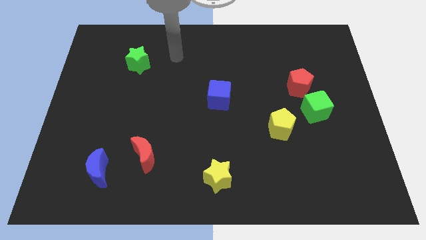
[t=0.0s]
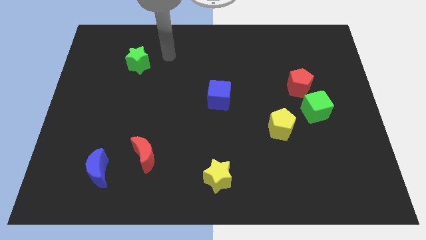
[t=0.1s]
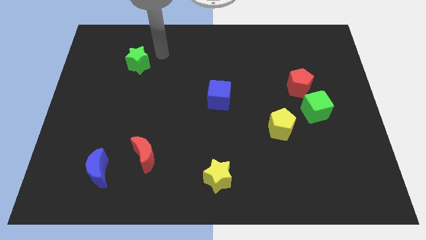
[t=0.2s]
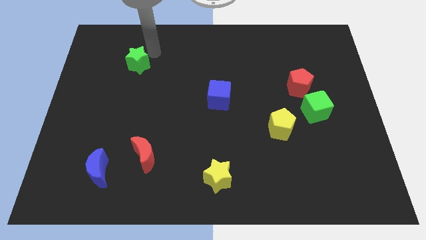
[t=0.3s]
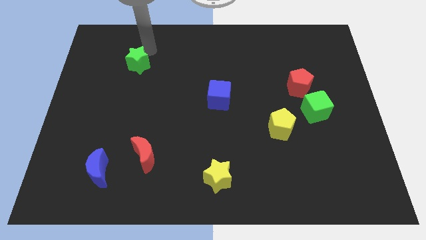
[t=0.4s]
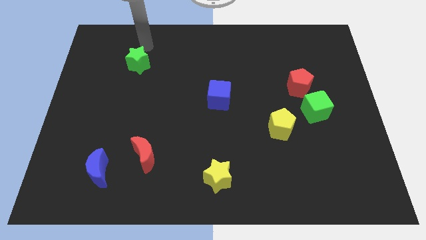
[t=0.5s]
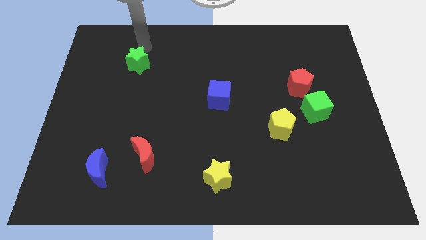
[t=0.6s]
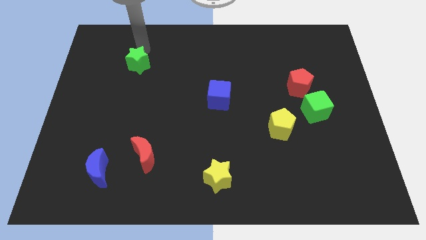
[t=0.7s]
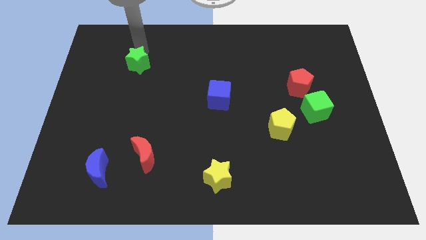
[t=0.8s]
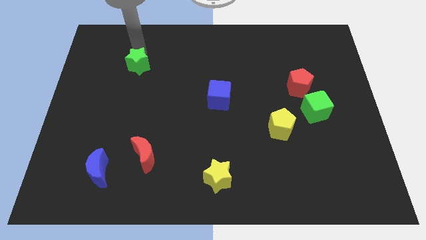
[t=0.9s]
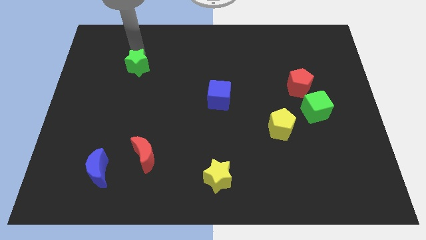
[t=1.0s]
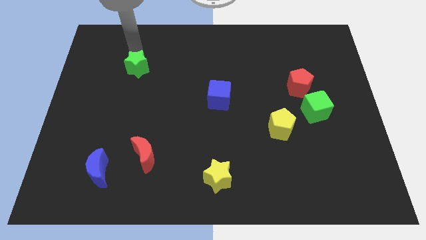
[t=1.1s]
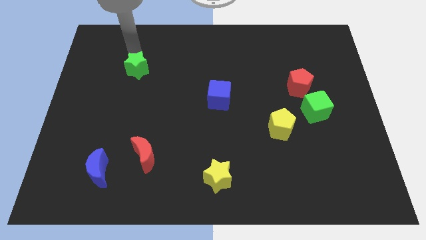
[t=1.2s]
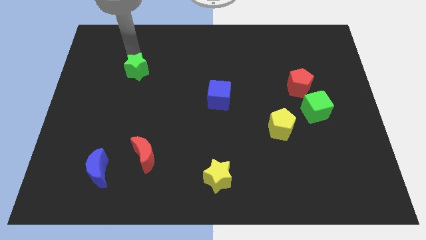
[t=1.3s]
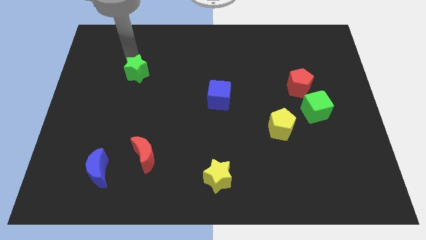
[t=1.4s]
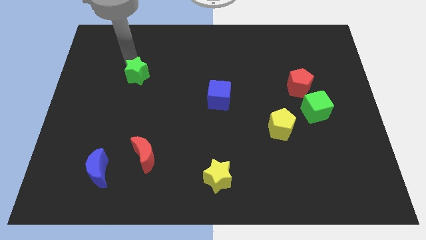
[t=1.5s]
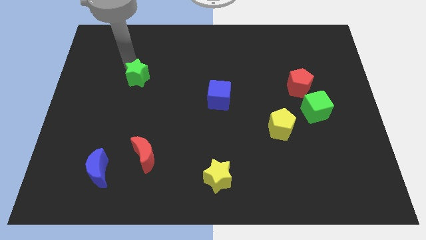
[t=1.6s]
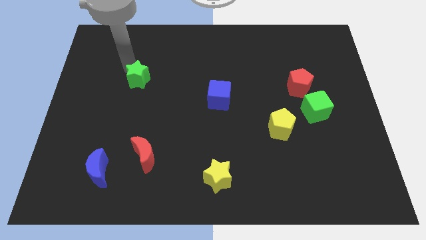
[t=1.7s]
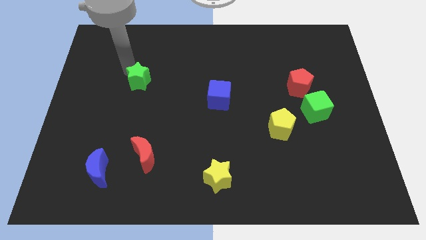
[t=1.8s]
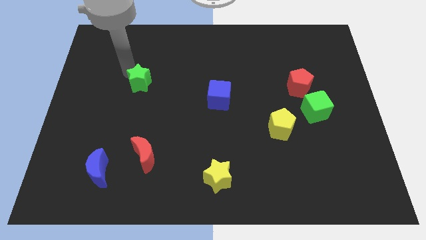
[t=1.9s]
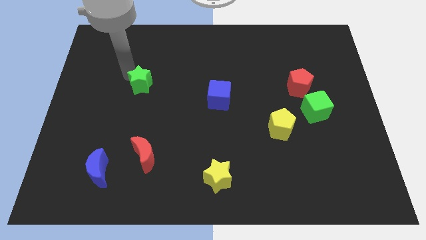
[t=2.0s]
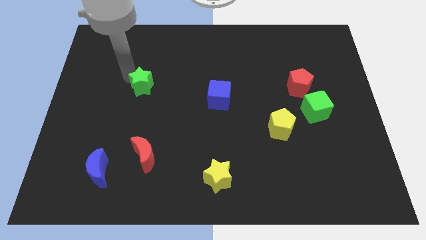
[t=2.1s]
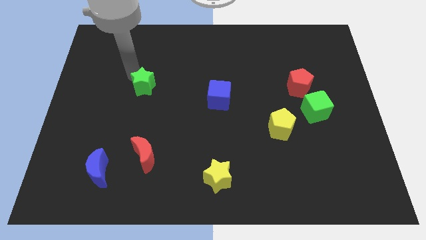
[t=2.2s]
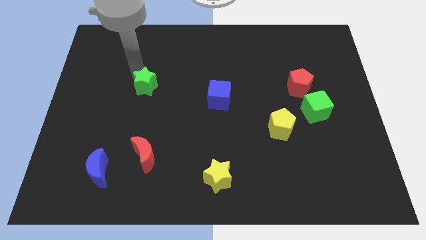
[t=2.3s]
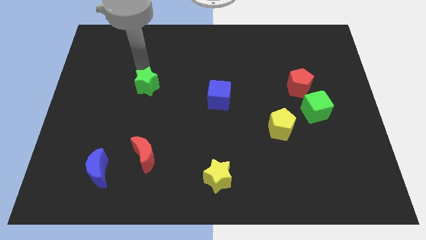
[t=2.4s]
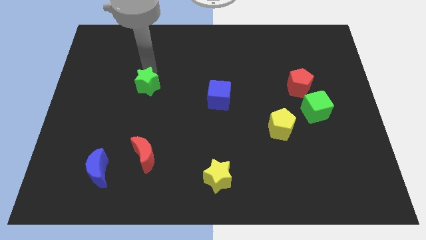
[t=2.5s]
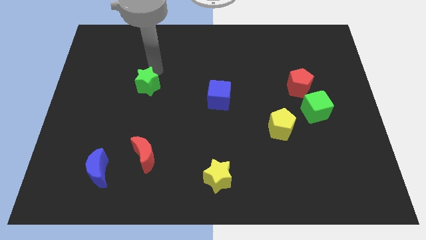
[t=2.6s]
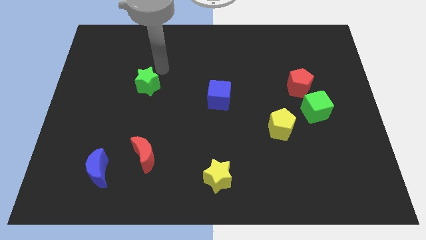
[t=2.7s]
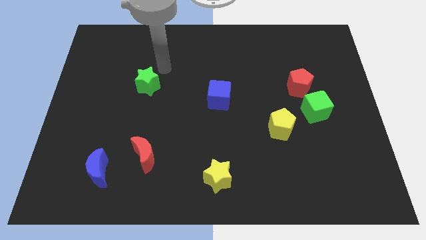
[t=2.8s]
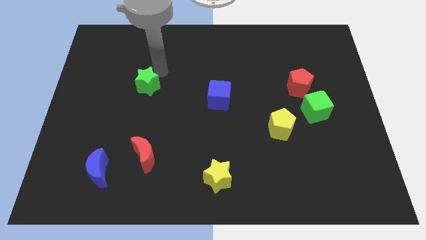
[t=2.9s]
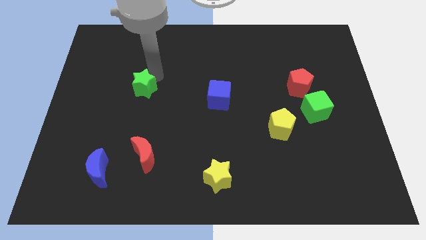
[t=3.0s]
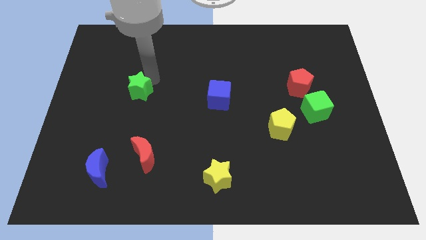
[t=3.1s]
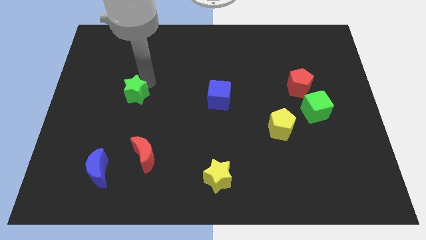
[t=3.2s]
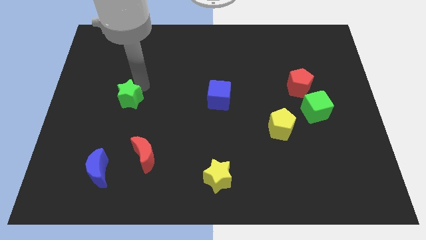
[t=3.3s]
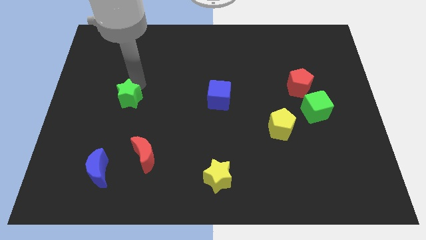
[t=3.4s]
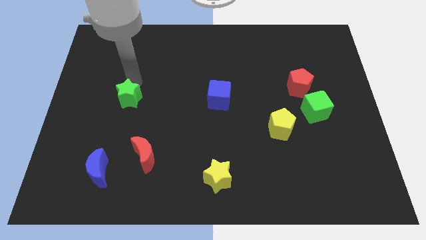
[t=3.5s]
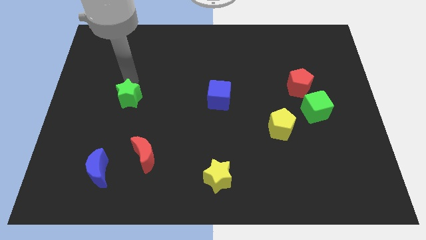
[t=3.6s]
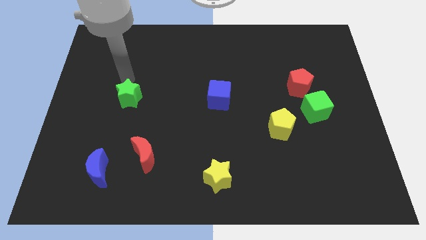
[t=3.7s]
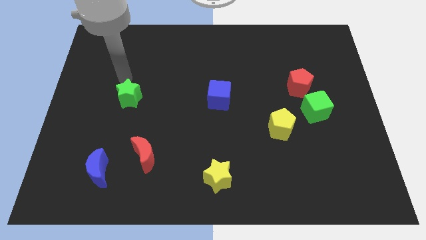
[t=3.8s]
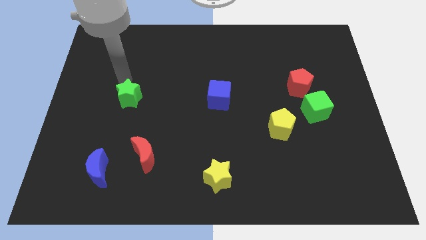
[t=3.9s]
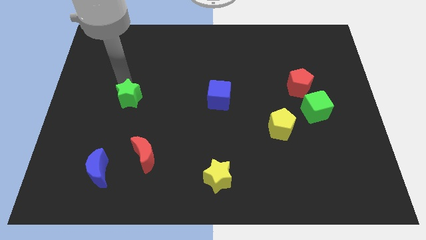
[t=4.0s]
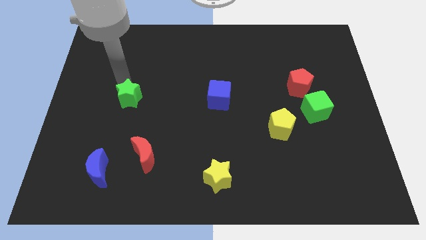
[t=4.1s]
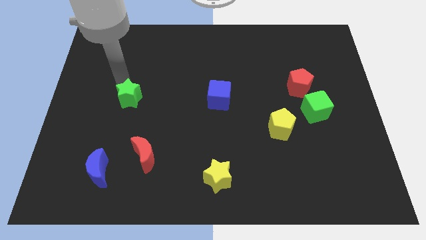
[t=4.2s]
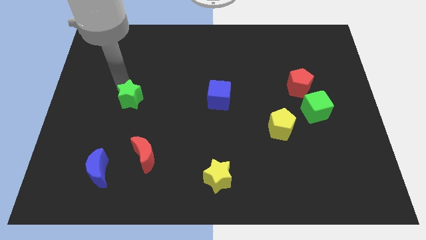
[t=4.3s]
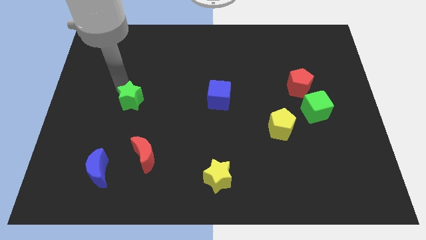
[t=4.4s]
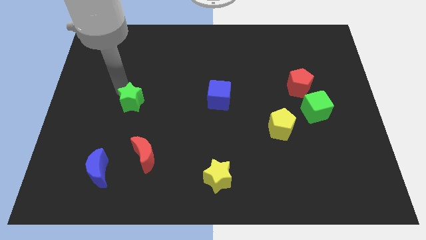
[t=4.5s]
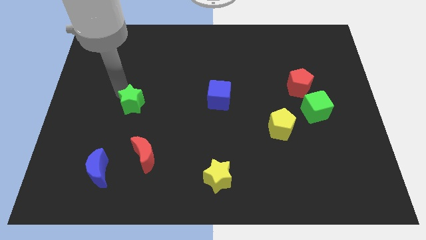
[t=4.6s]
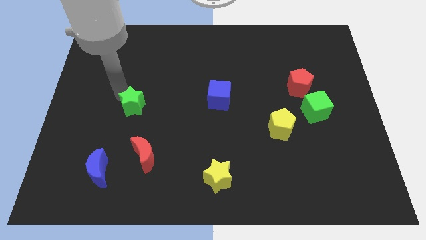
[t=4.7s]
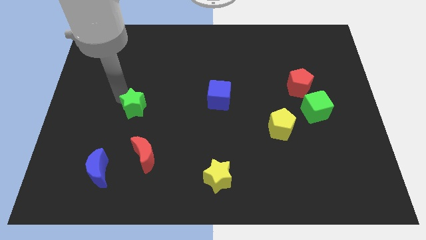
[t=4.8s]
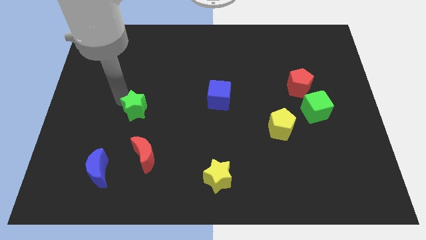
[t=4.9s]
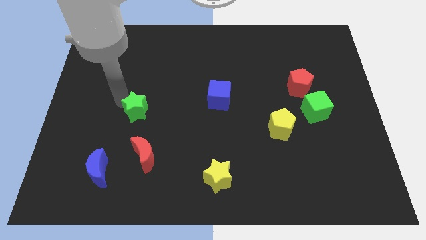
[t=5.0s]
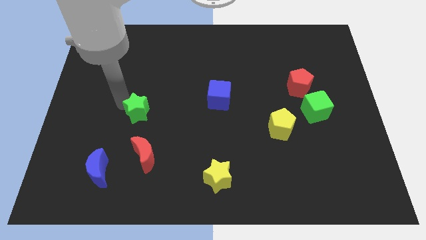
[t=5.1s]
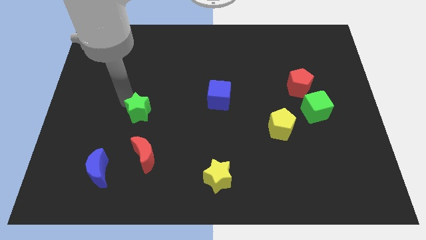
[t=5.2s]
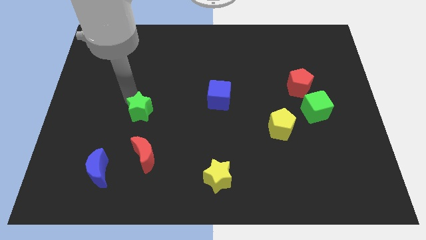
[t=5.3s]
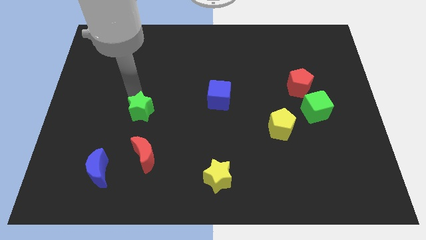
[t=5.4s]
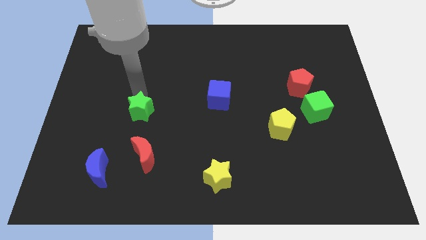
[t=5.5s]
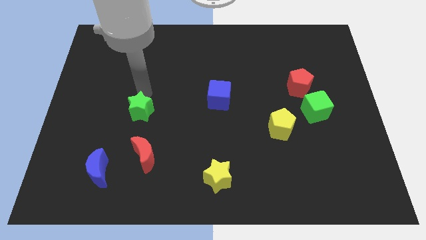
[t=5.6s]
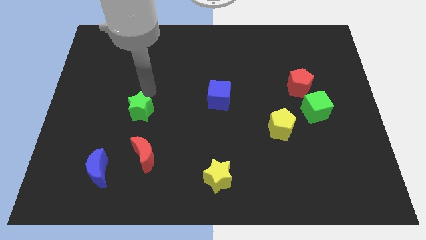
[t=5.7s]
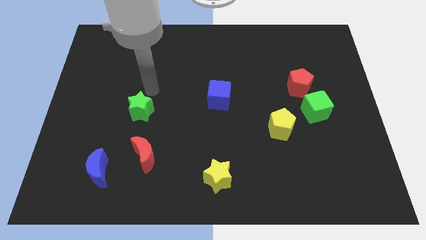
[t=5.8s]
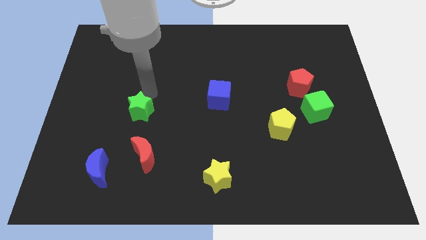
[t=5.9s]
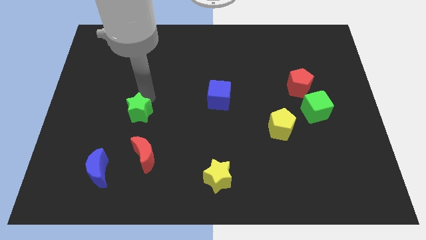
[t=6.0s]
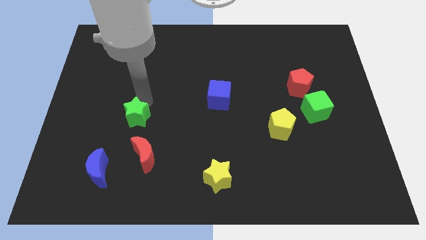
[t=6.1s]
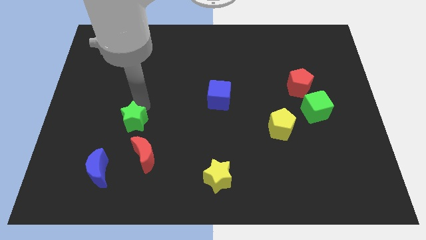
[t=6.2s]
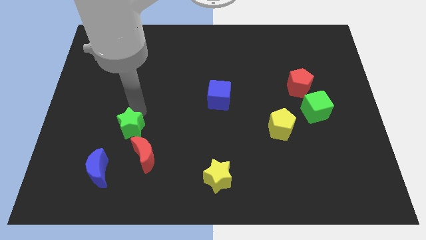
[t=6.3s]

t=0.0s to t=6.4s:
slide the green star down

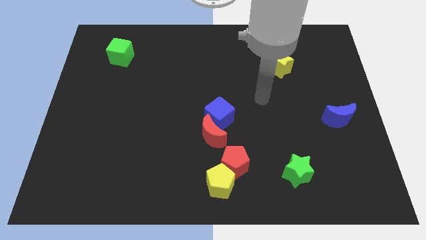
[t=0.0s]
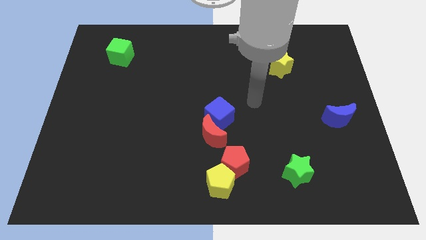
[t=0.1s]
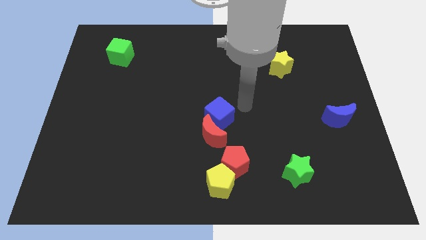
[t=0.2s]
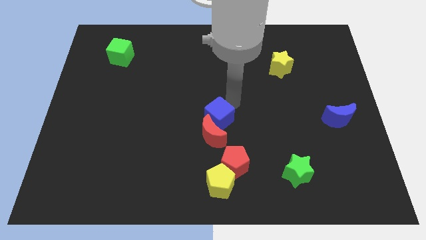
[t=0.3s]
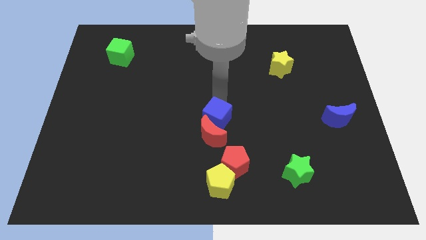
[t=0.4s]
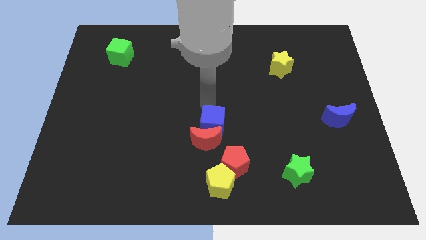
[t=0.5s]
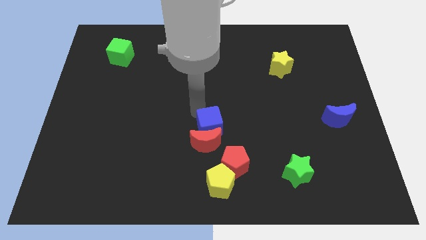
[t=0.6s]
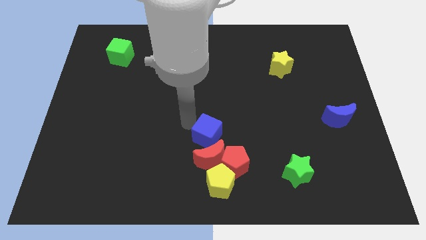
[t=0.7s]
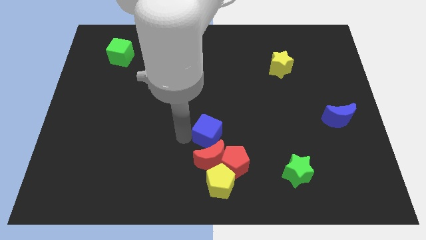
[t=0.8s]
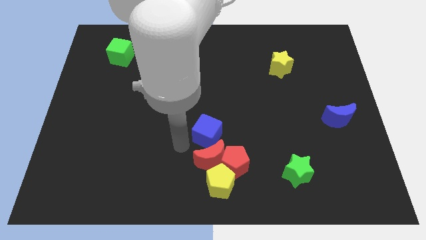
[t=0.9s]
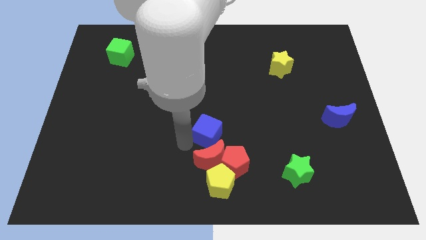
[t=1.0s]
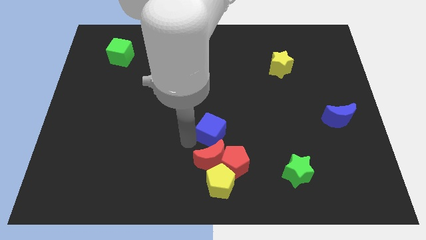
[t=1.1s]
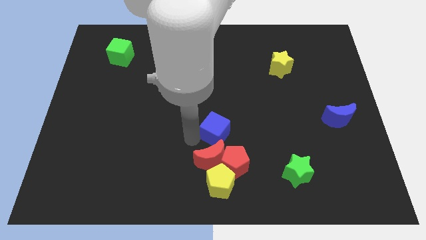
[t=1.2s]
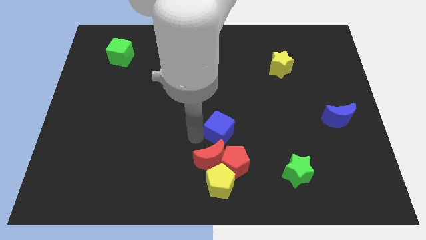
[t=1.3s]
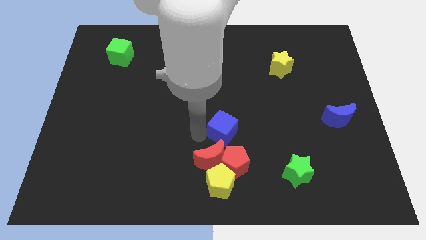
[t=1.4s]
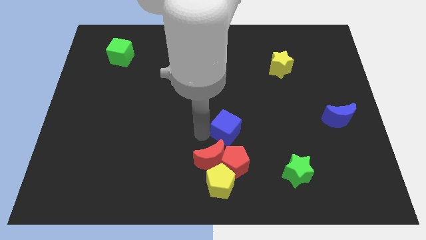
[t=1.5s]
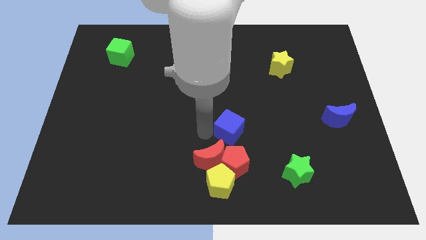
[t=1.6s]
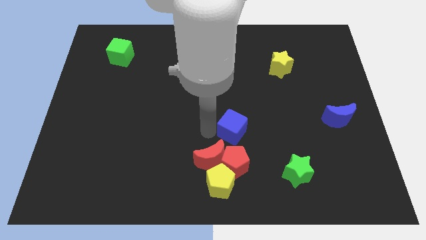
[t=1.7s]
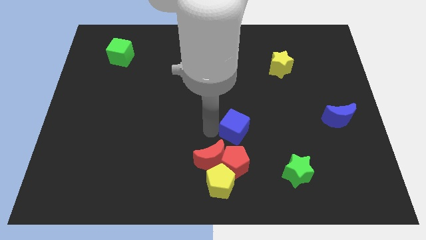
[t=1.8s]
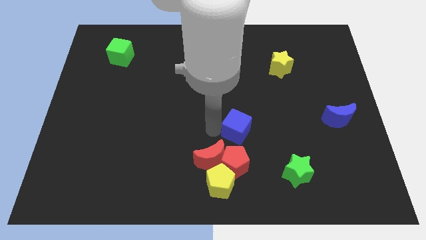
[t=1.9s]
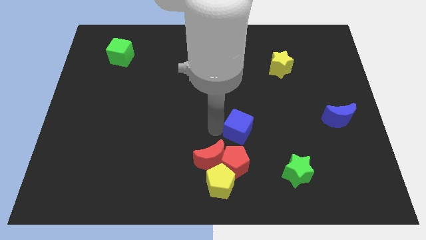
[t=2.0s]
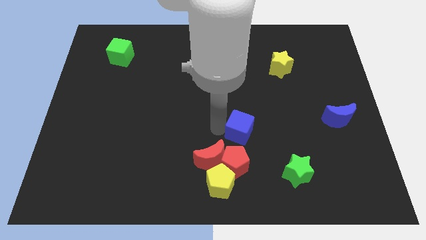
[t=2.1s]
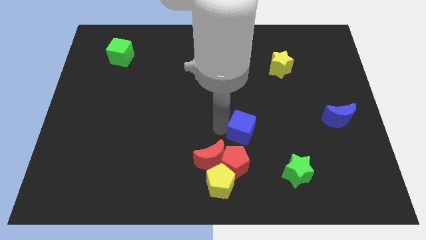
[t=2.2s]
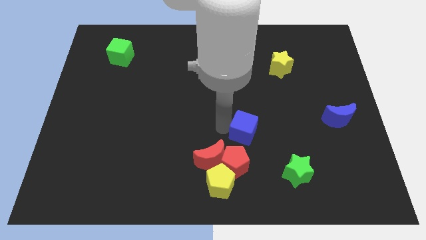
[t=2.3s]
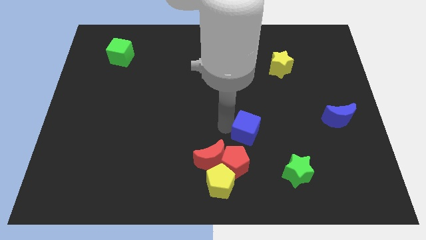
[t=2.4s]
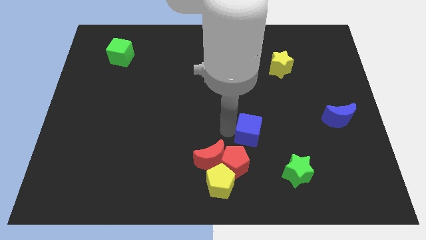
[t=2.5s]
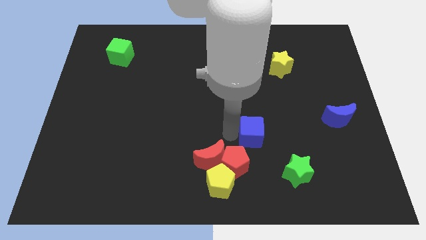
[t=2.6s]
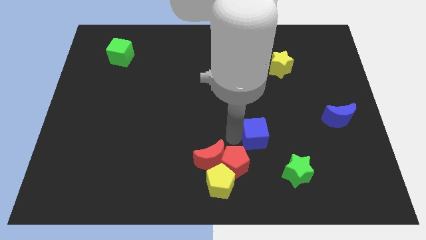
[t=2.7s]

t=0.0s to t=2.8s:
push the blue cube right a bit
